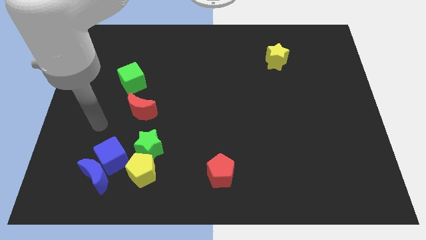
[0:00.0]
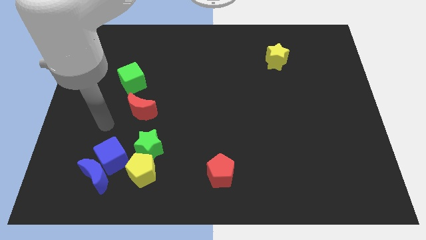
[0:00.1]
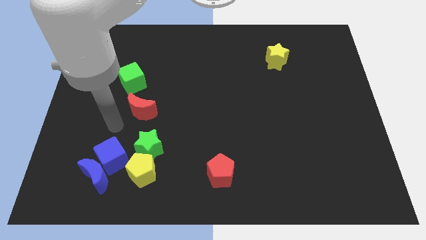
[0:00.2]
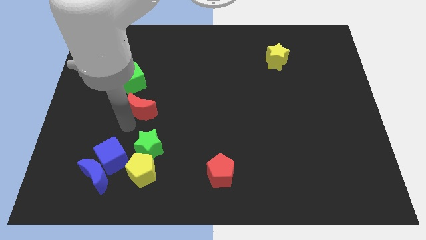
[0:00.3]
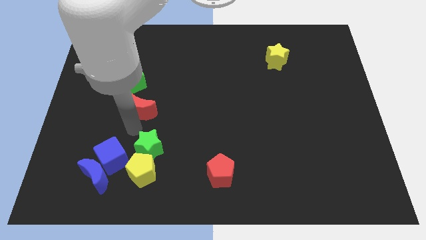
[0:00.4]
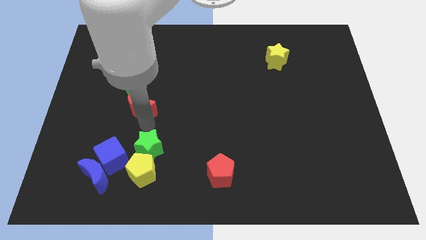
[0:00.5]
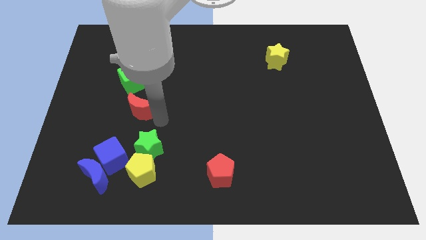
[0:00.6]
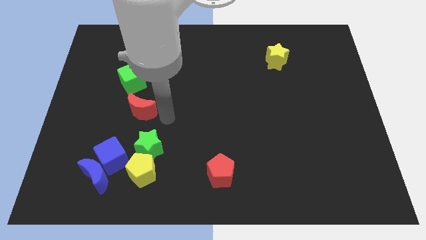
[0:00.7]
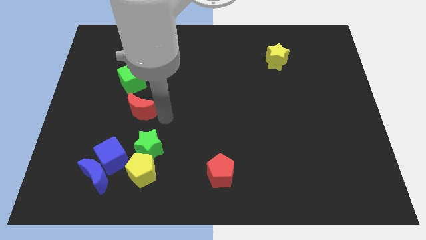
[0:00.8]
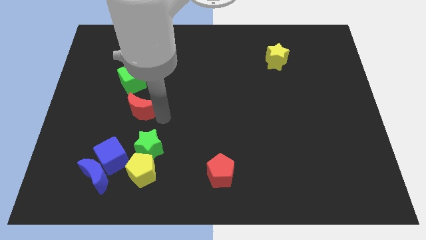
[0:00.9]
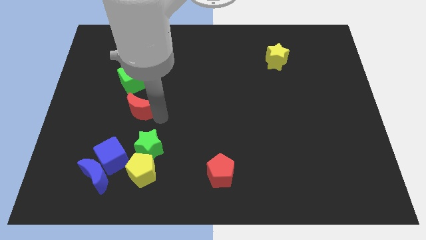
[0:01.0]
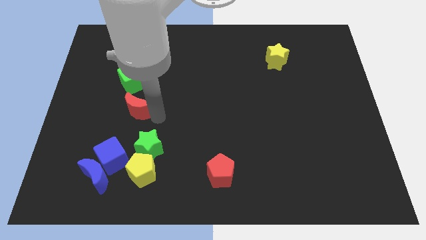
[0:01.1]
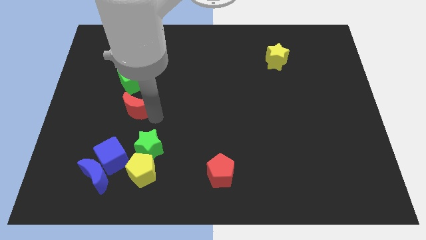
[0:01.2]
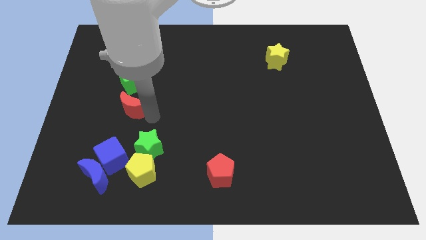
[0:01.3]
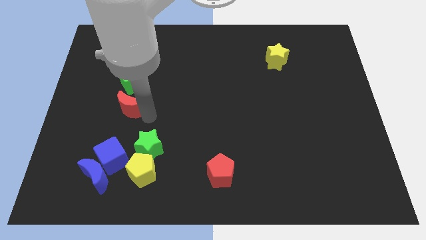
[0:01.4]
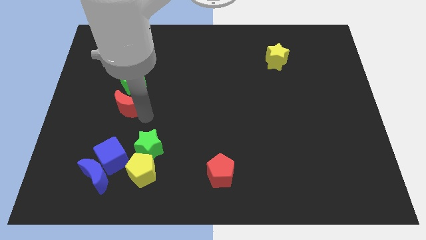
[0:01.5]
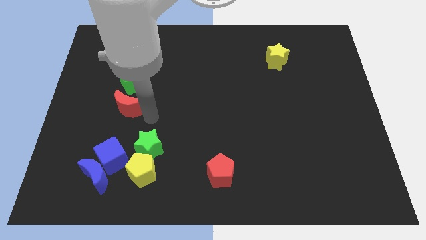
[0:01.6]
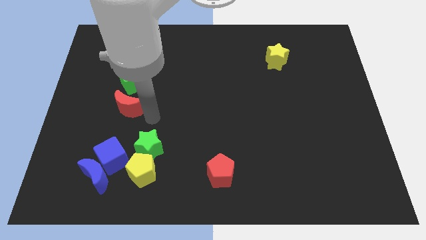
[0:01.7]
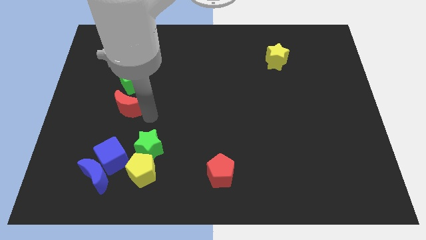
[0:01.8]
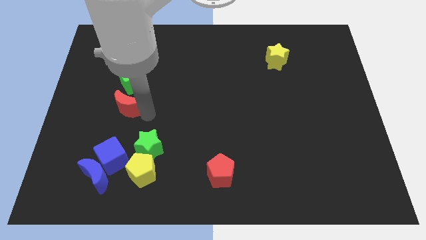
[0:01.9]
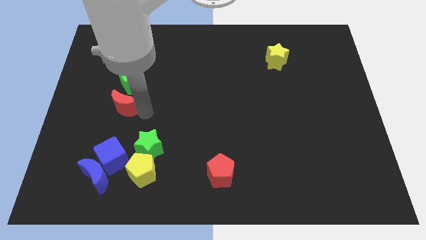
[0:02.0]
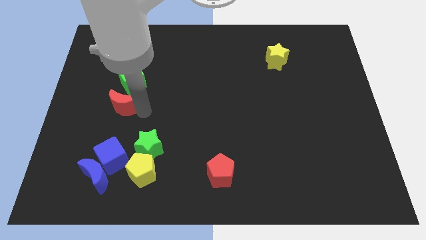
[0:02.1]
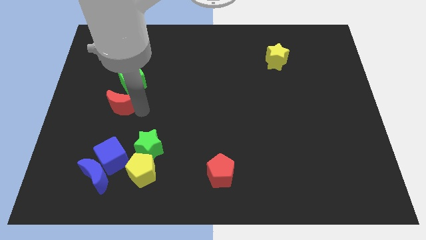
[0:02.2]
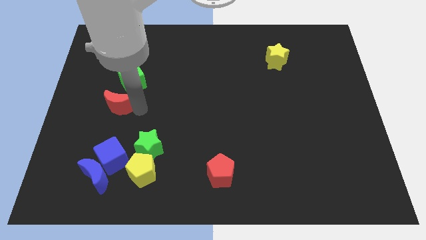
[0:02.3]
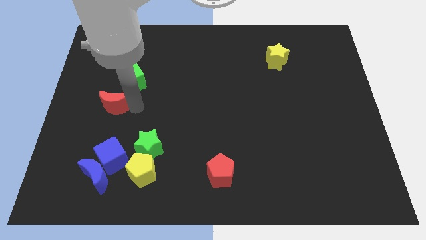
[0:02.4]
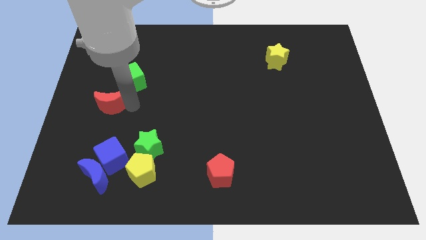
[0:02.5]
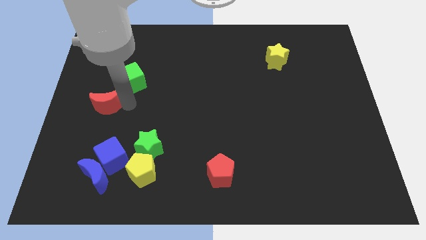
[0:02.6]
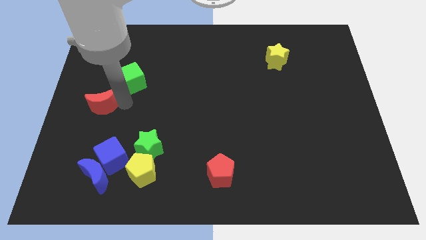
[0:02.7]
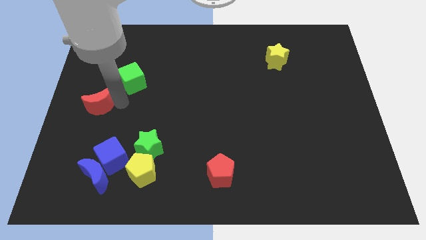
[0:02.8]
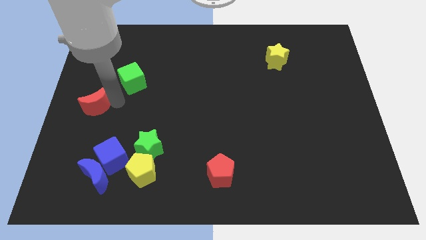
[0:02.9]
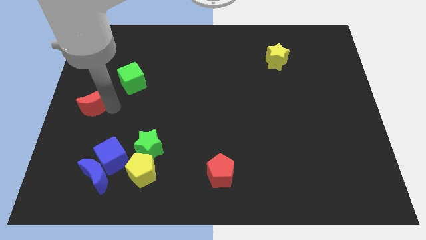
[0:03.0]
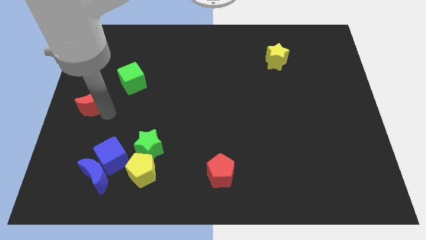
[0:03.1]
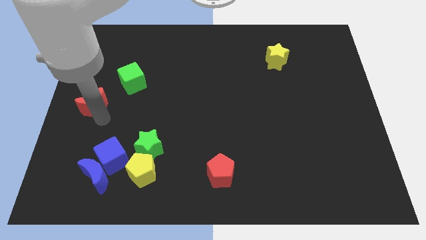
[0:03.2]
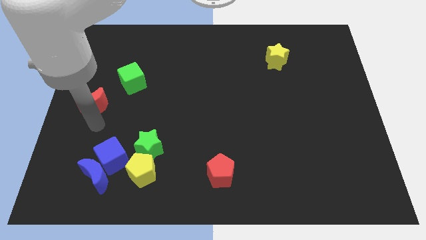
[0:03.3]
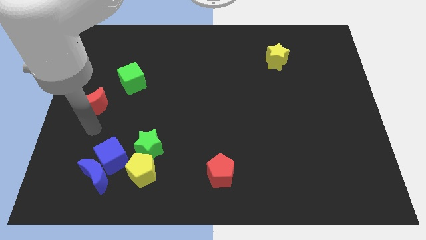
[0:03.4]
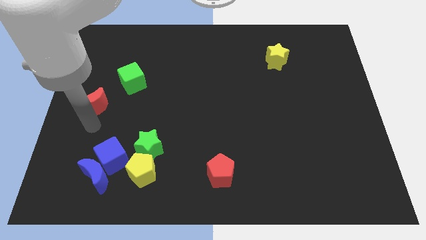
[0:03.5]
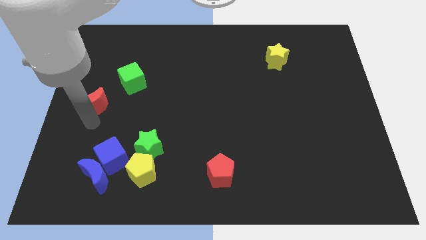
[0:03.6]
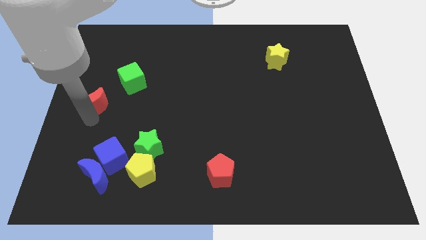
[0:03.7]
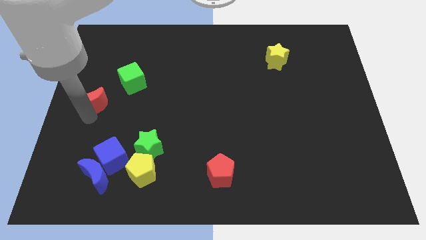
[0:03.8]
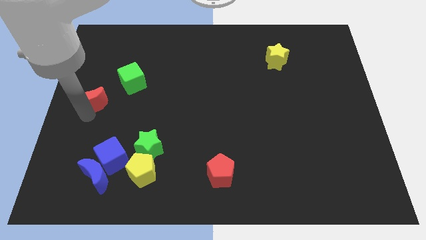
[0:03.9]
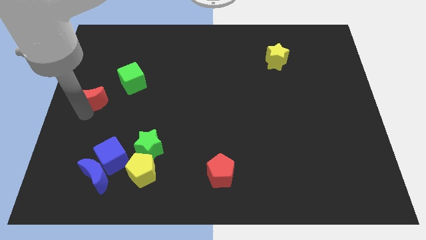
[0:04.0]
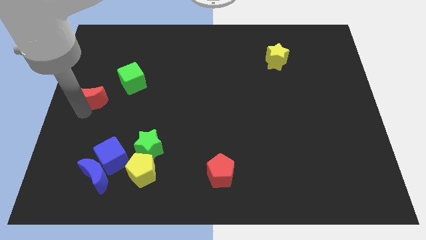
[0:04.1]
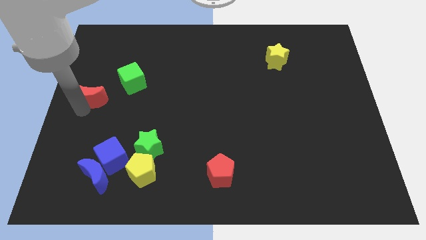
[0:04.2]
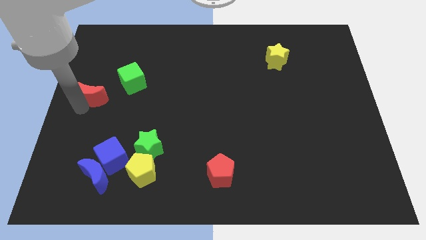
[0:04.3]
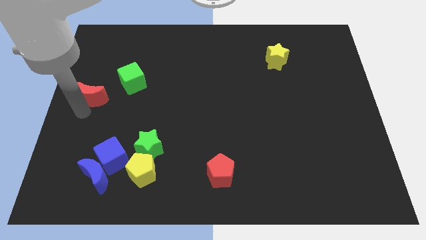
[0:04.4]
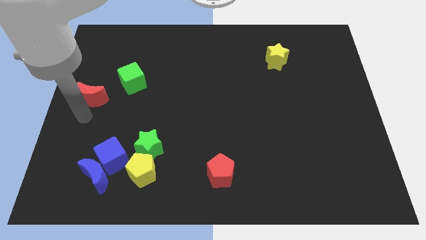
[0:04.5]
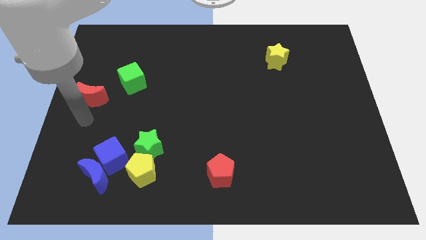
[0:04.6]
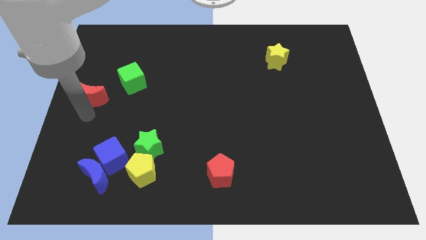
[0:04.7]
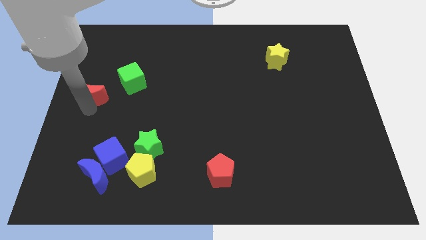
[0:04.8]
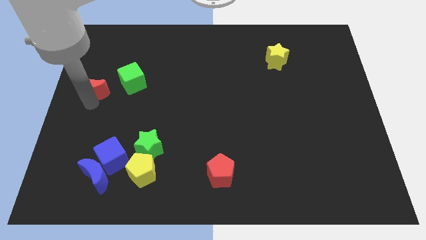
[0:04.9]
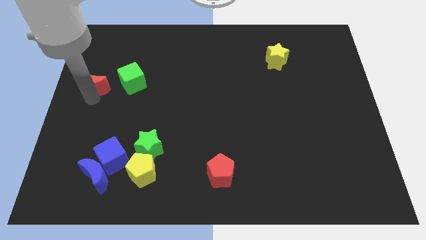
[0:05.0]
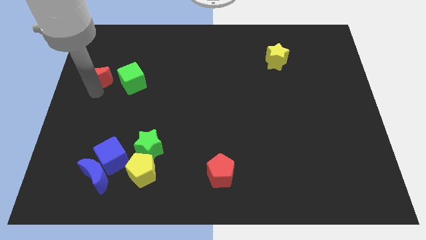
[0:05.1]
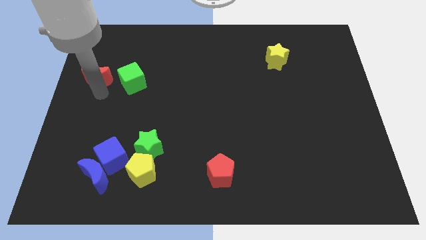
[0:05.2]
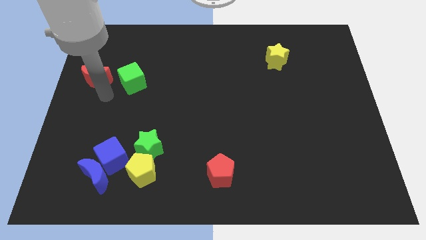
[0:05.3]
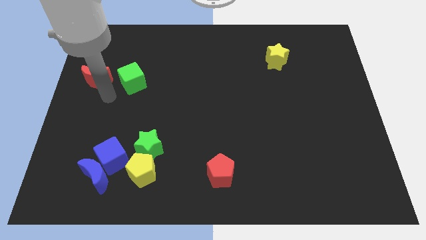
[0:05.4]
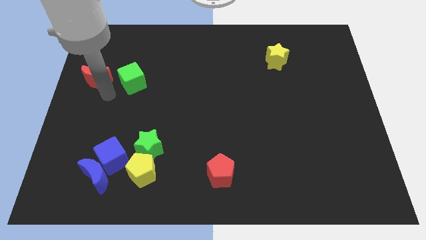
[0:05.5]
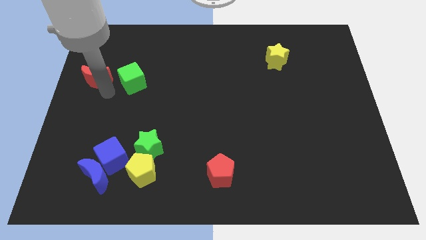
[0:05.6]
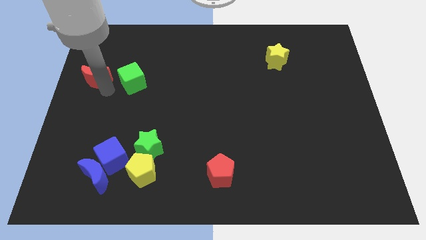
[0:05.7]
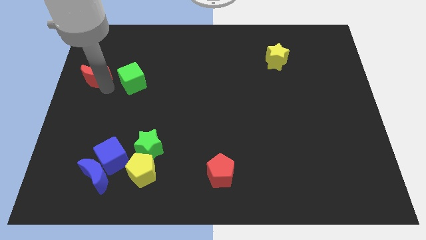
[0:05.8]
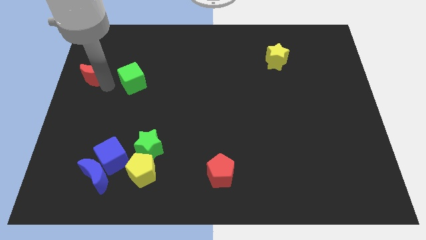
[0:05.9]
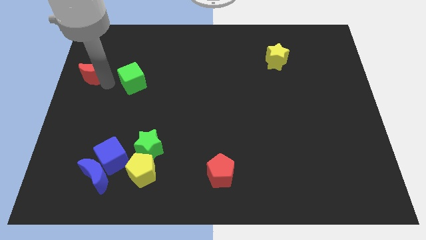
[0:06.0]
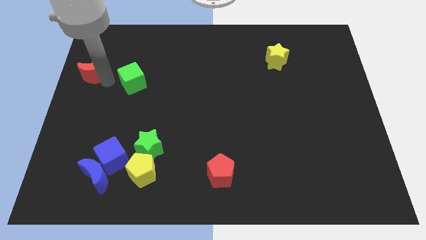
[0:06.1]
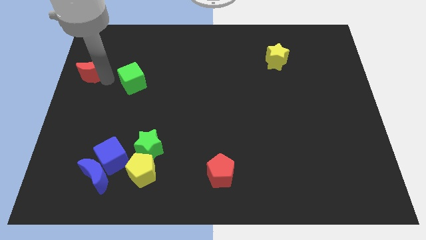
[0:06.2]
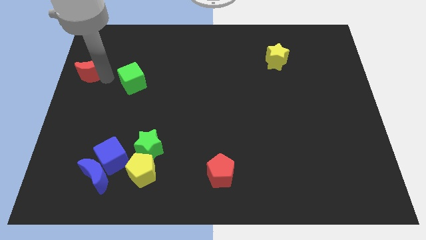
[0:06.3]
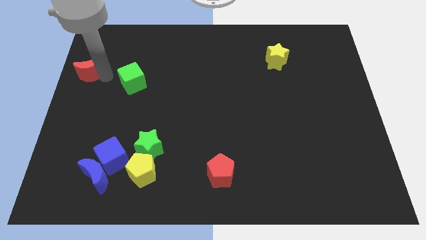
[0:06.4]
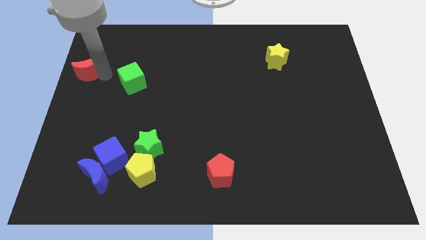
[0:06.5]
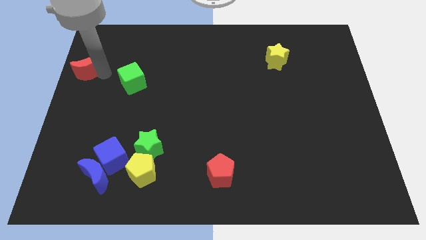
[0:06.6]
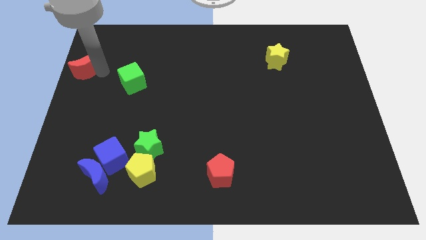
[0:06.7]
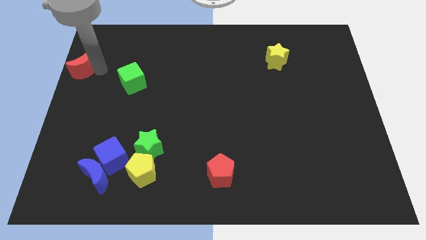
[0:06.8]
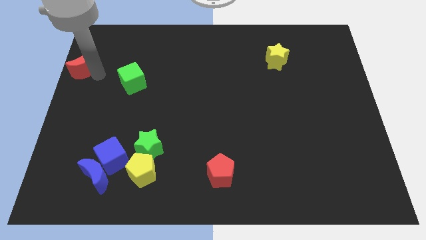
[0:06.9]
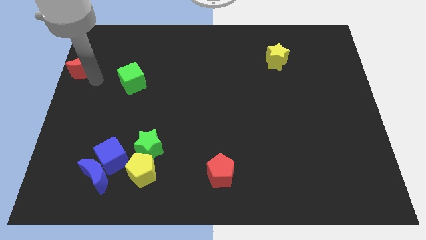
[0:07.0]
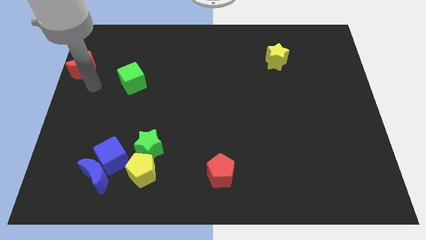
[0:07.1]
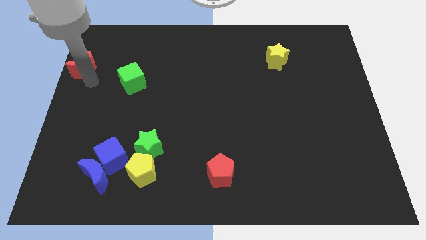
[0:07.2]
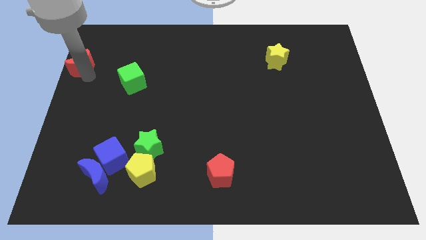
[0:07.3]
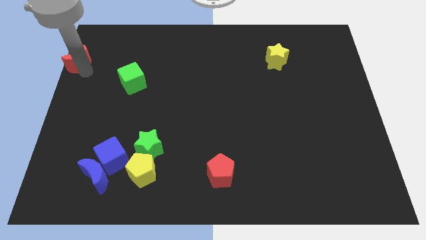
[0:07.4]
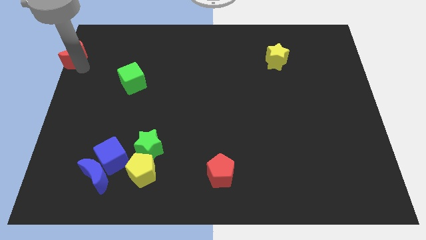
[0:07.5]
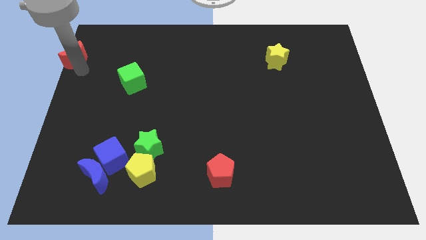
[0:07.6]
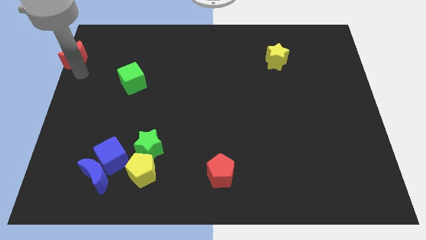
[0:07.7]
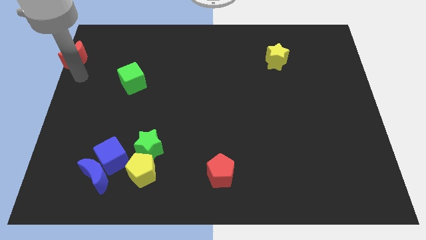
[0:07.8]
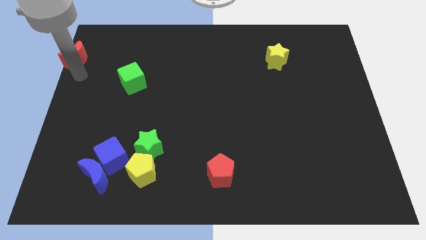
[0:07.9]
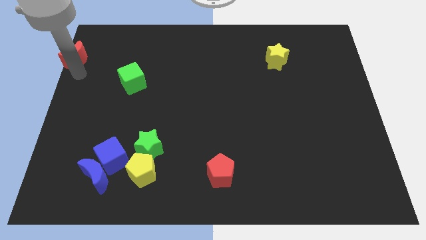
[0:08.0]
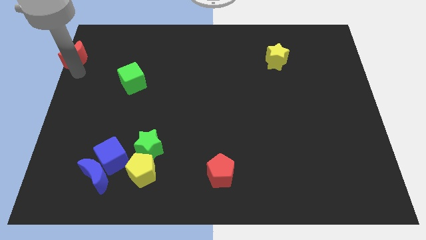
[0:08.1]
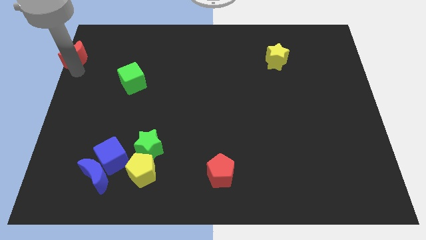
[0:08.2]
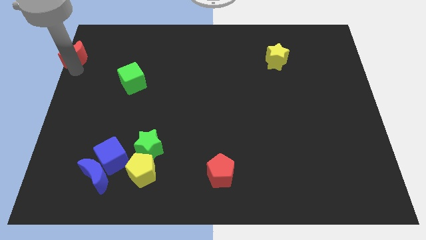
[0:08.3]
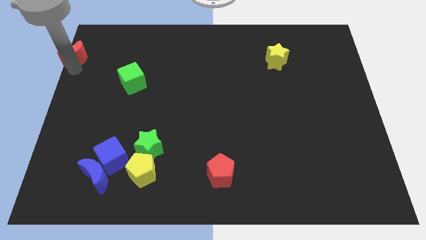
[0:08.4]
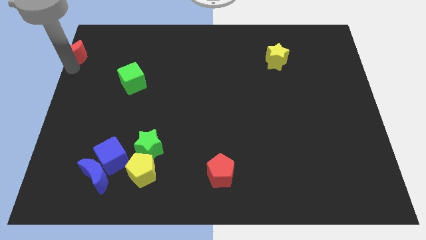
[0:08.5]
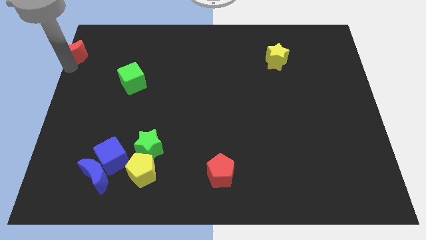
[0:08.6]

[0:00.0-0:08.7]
move the red moon to the top left
